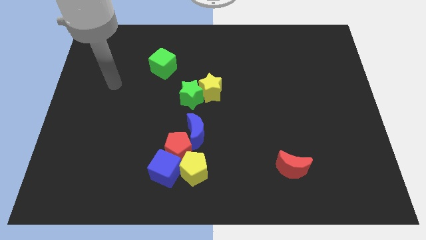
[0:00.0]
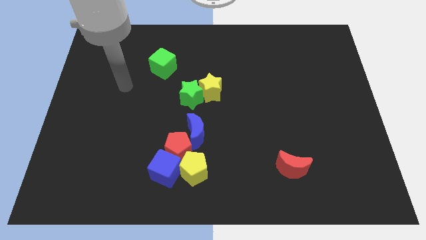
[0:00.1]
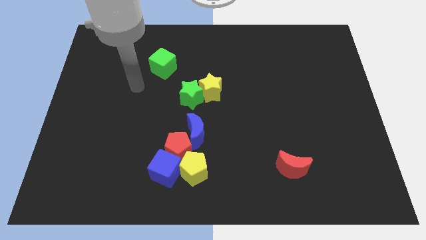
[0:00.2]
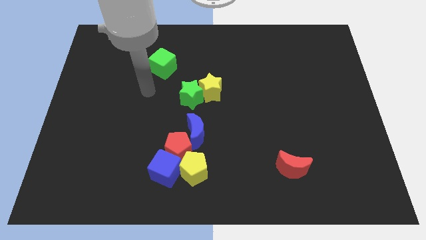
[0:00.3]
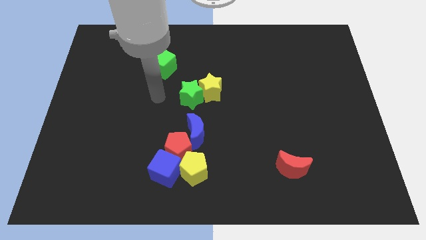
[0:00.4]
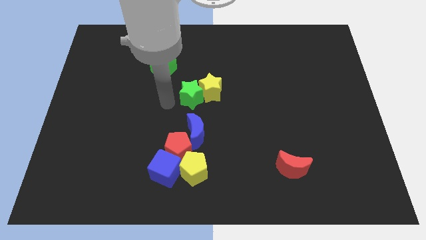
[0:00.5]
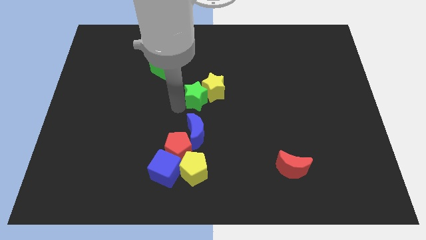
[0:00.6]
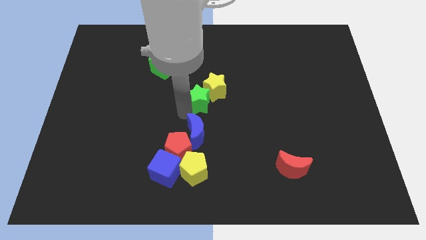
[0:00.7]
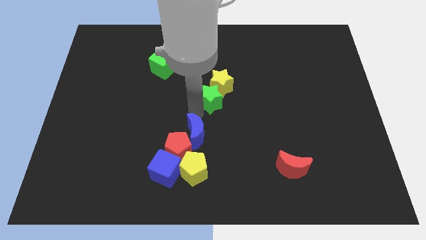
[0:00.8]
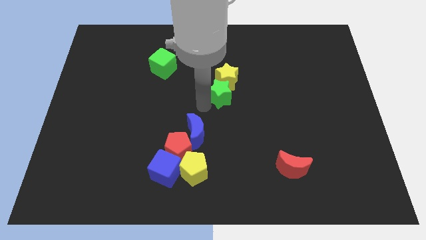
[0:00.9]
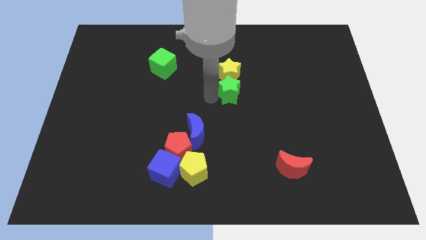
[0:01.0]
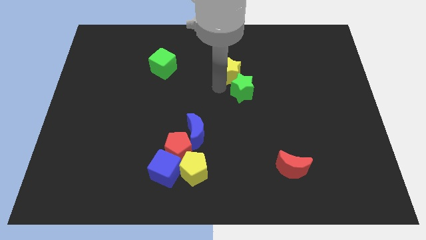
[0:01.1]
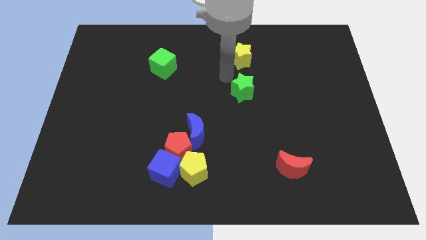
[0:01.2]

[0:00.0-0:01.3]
pull the green star apart from the yellow star

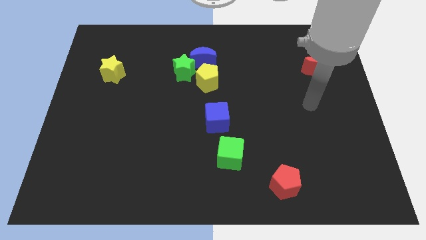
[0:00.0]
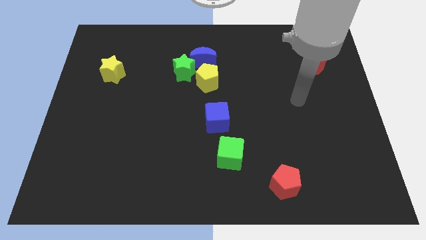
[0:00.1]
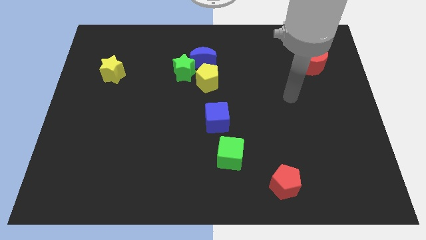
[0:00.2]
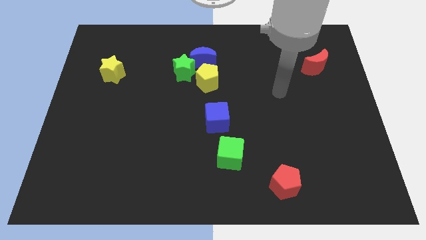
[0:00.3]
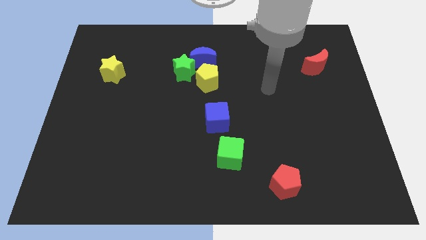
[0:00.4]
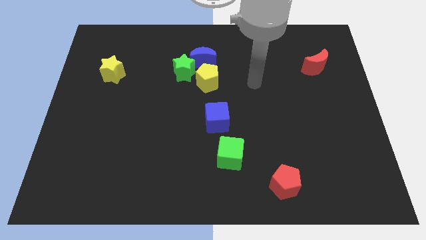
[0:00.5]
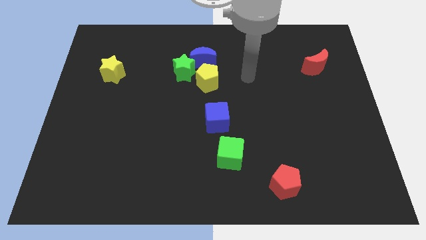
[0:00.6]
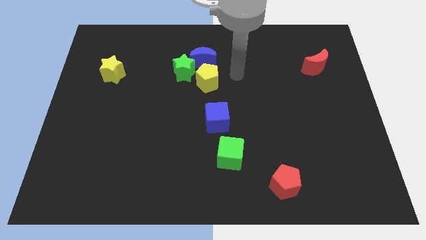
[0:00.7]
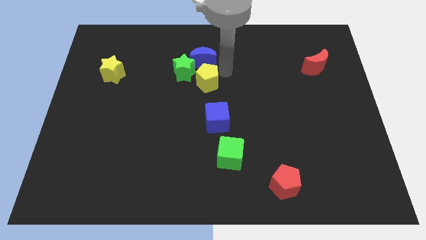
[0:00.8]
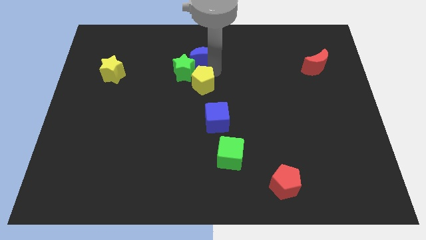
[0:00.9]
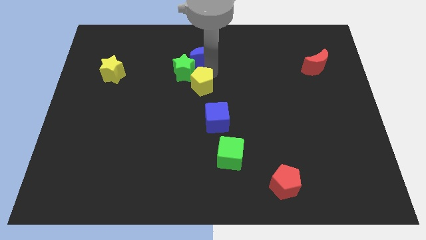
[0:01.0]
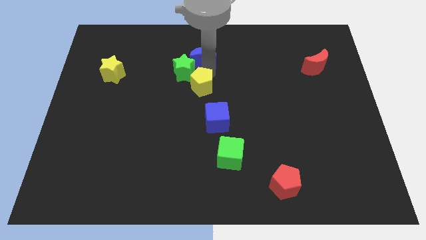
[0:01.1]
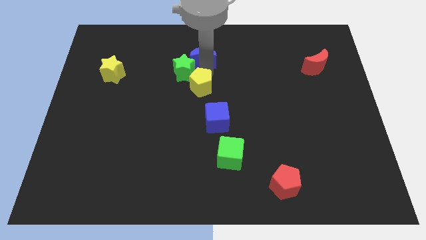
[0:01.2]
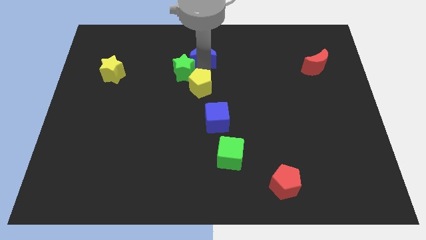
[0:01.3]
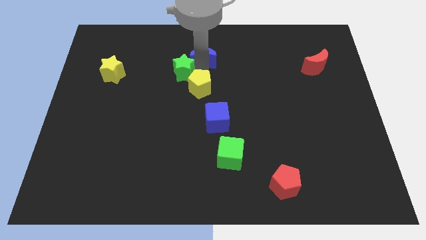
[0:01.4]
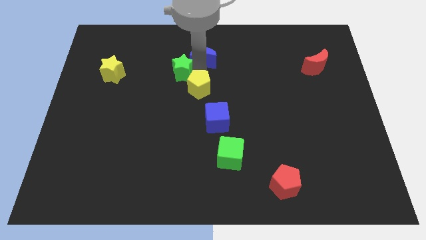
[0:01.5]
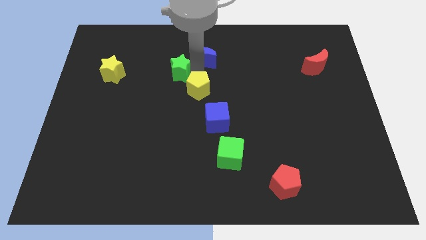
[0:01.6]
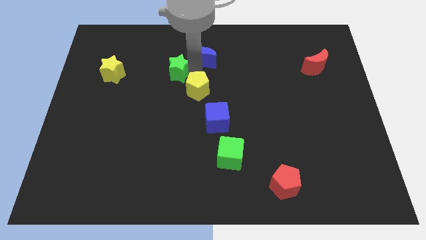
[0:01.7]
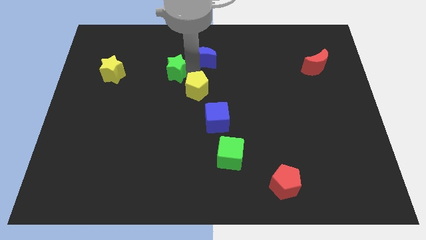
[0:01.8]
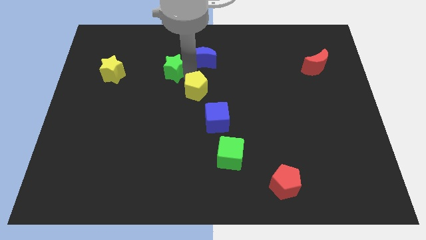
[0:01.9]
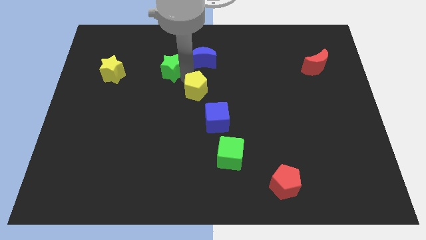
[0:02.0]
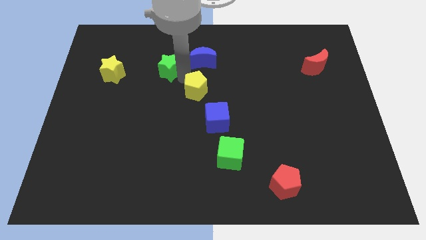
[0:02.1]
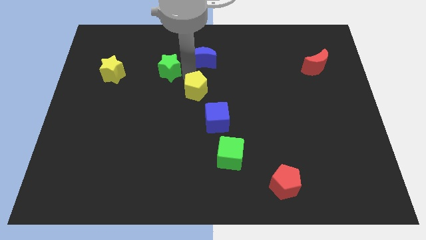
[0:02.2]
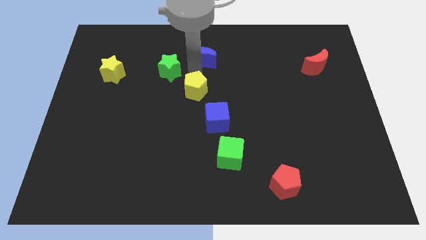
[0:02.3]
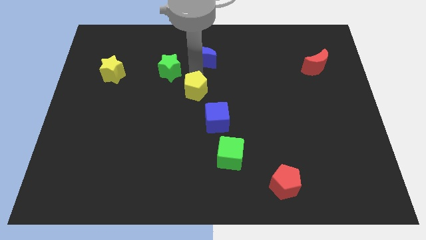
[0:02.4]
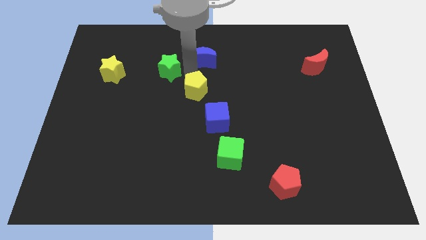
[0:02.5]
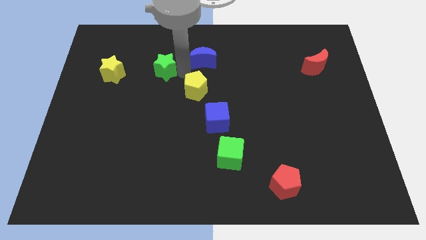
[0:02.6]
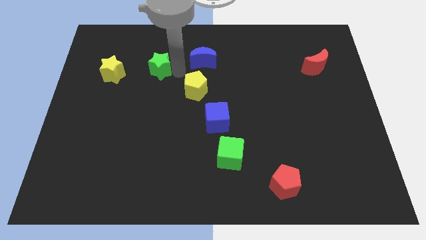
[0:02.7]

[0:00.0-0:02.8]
separate the green star from the blue moon and yellow pentagon

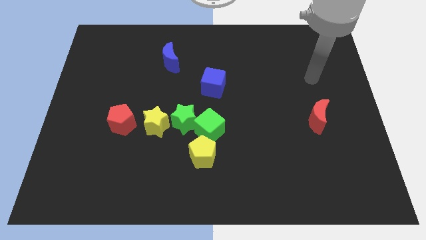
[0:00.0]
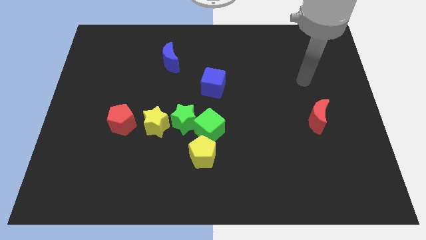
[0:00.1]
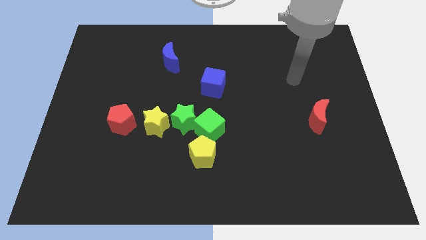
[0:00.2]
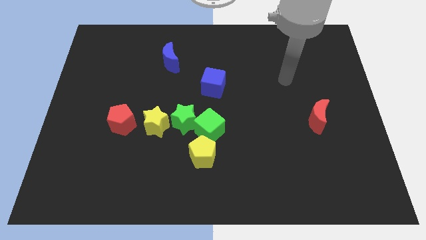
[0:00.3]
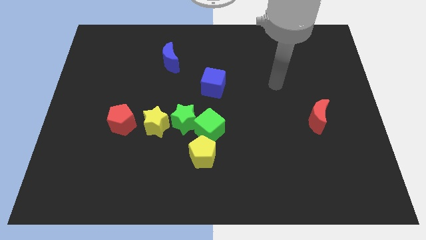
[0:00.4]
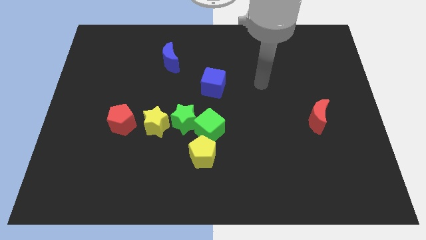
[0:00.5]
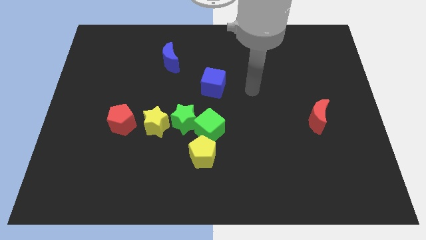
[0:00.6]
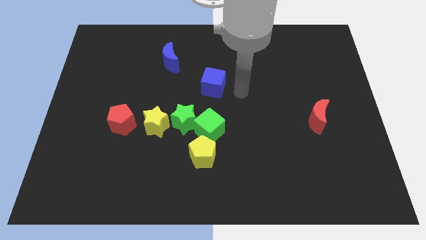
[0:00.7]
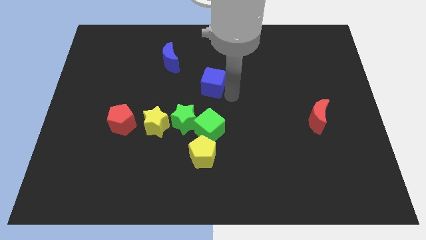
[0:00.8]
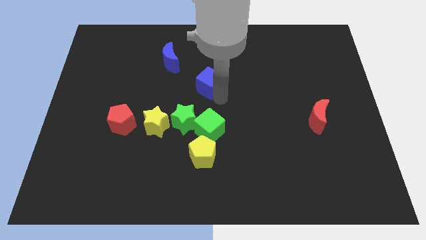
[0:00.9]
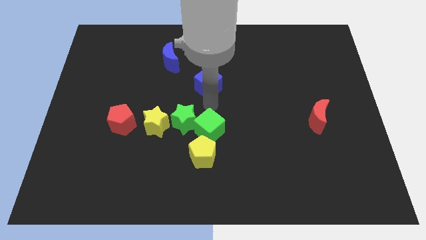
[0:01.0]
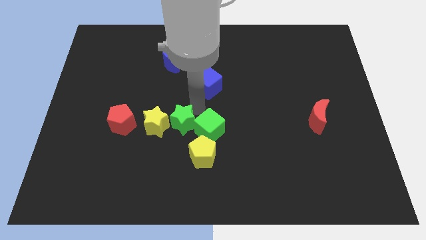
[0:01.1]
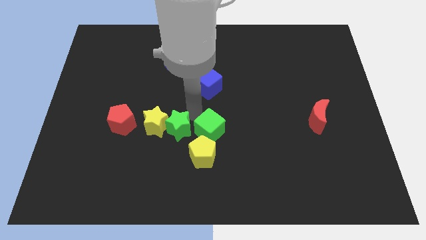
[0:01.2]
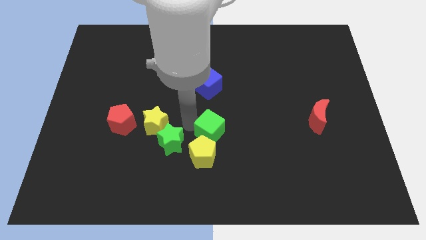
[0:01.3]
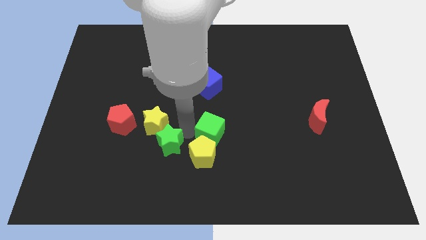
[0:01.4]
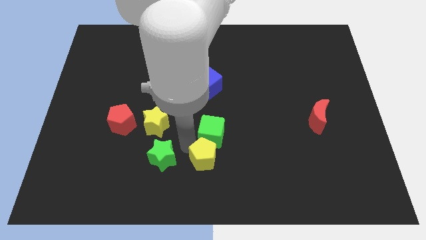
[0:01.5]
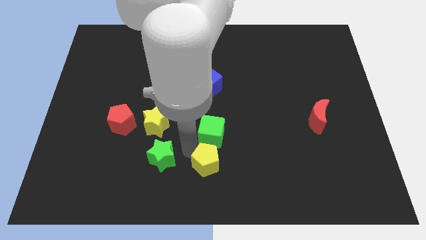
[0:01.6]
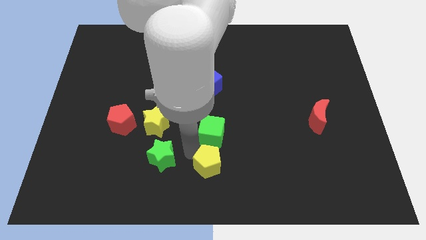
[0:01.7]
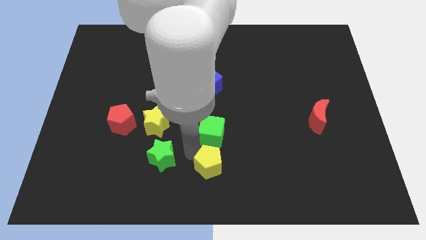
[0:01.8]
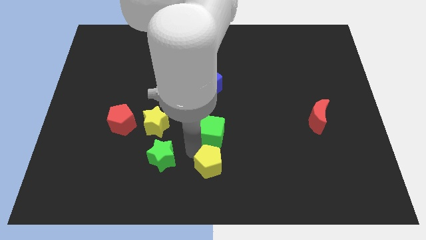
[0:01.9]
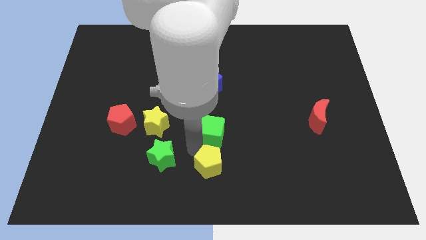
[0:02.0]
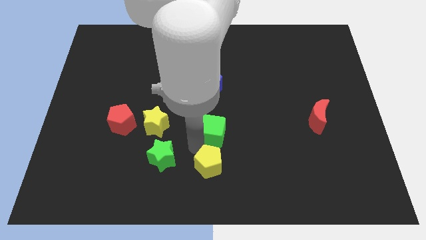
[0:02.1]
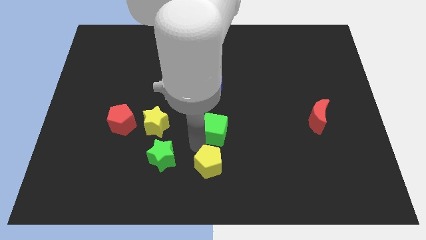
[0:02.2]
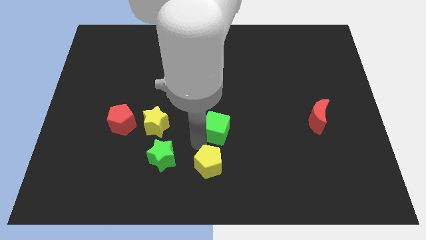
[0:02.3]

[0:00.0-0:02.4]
separate the green cube from the green star and yellow pentagon

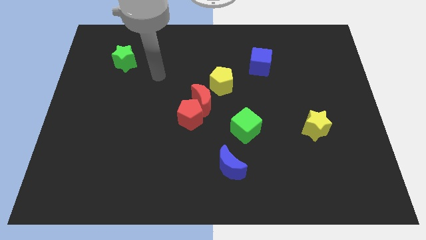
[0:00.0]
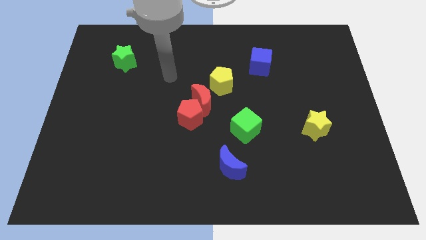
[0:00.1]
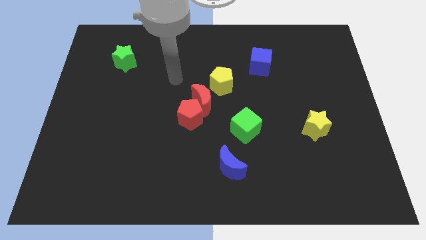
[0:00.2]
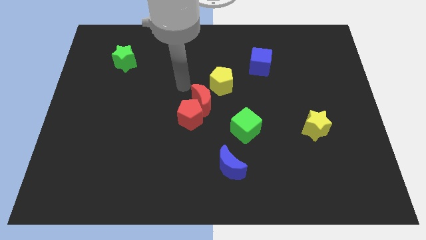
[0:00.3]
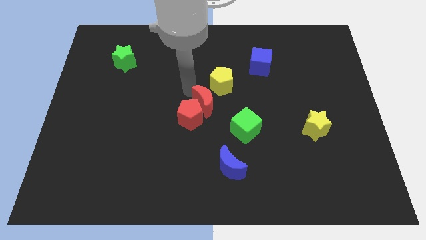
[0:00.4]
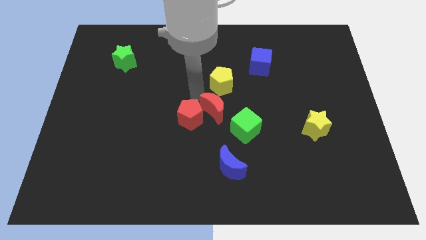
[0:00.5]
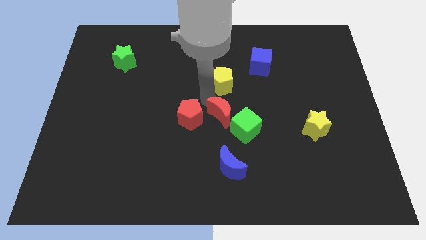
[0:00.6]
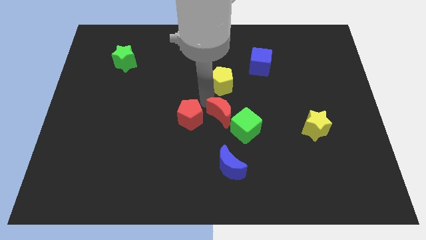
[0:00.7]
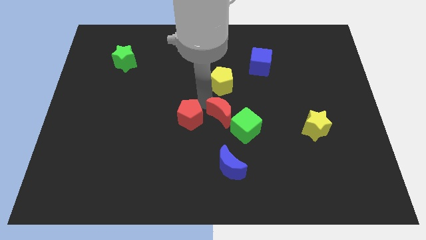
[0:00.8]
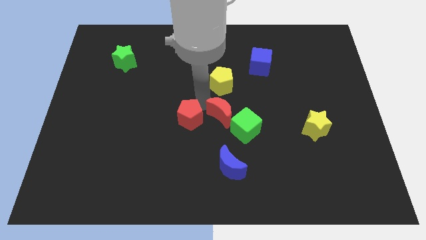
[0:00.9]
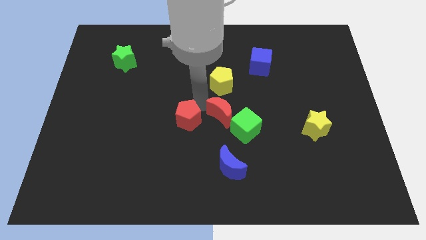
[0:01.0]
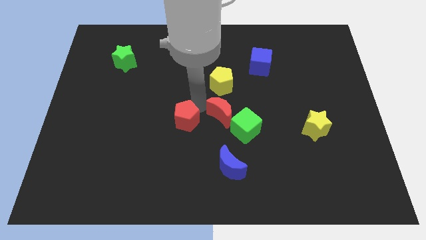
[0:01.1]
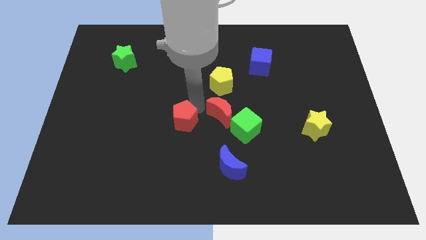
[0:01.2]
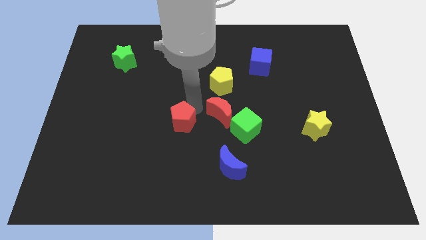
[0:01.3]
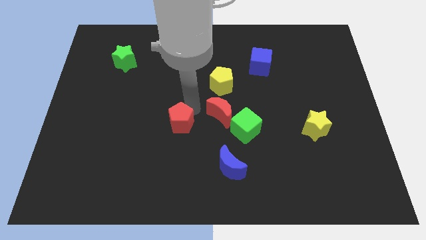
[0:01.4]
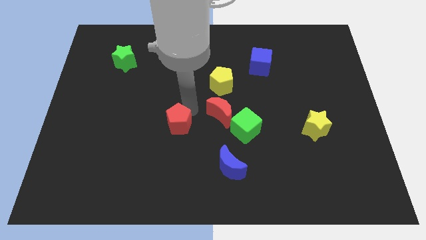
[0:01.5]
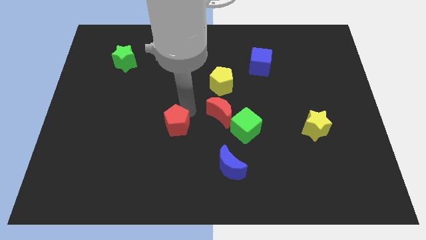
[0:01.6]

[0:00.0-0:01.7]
move the red pentagon away from the red moon

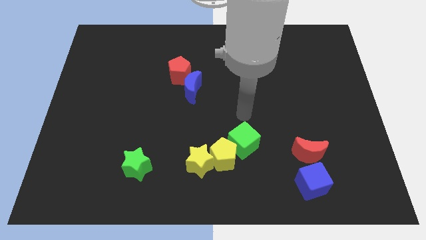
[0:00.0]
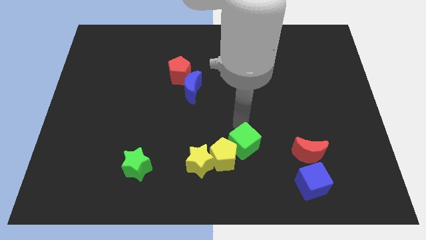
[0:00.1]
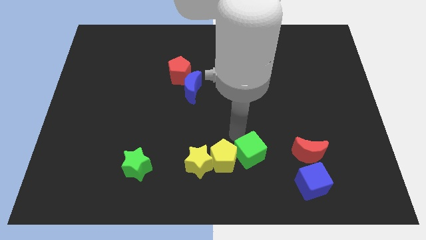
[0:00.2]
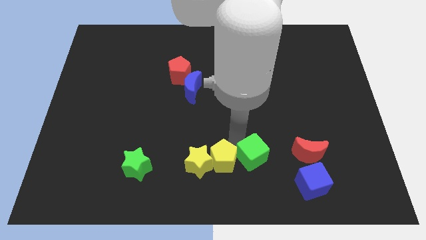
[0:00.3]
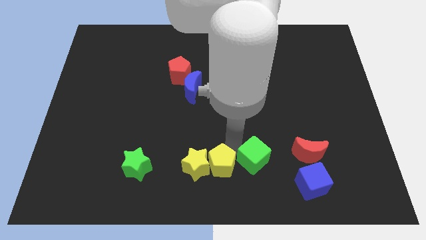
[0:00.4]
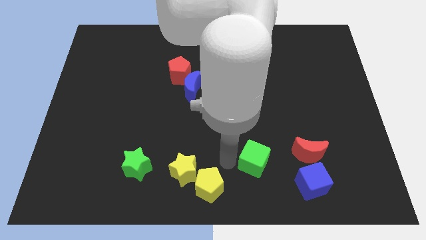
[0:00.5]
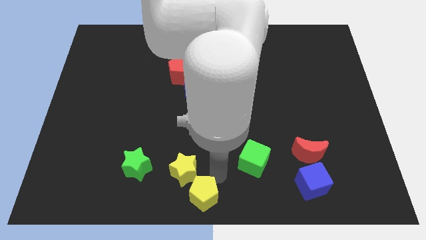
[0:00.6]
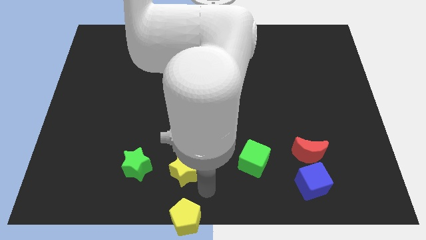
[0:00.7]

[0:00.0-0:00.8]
move the yellow star away from the yellow pentagon

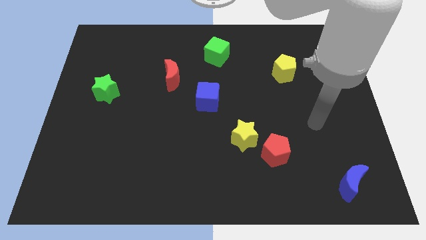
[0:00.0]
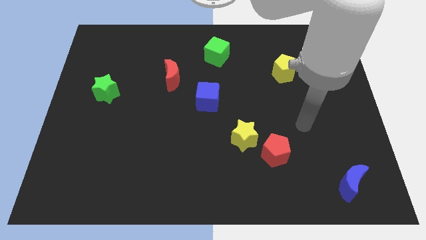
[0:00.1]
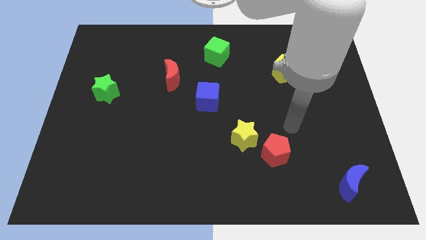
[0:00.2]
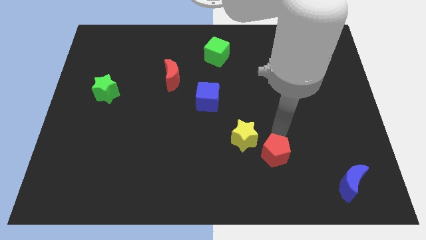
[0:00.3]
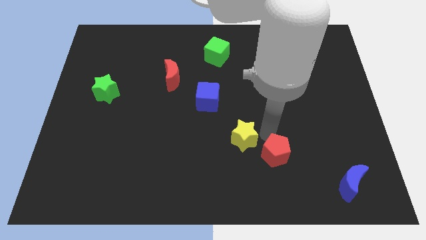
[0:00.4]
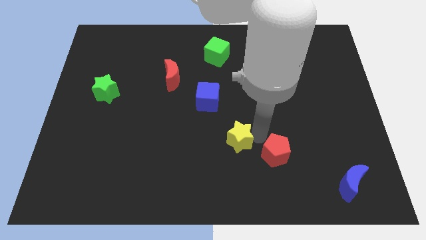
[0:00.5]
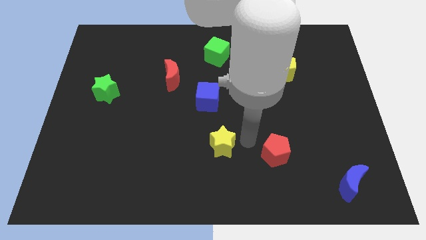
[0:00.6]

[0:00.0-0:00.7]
move the red pentagon away from the yellow star
